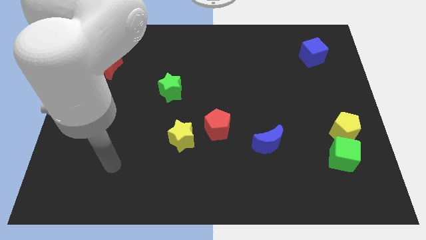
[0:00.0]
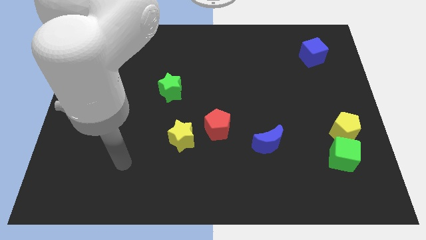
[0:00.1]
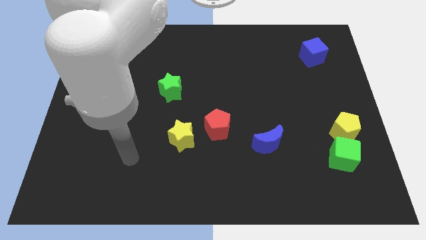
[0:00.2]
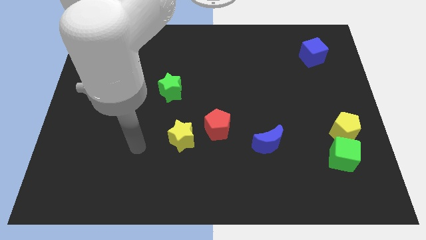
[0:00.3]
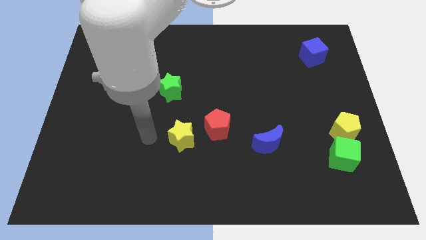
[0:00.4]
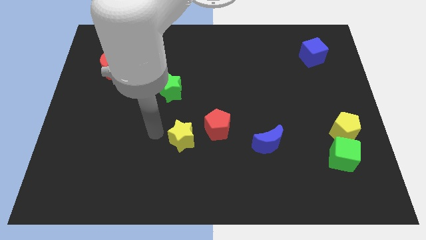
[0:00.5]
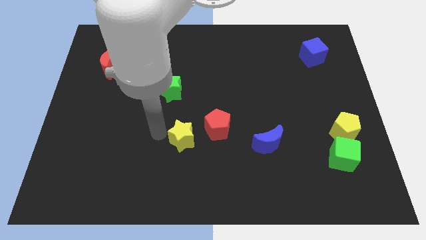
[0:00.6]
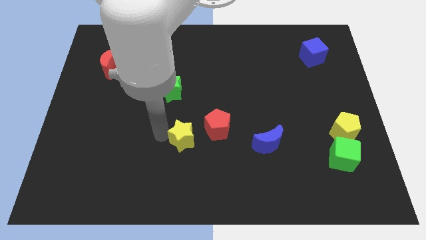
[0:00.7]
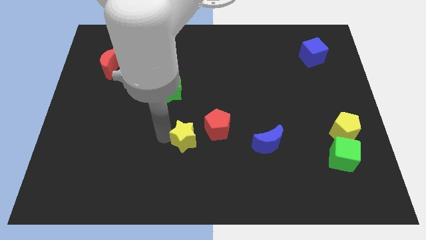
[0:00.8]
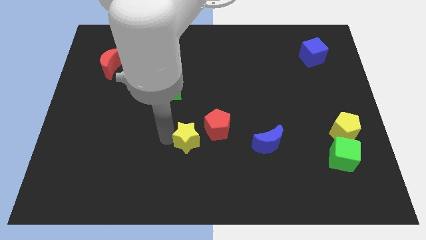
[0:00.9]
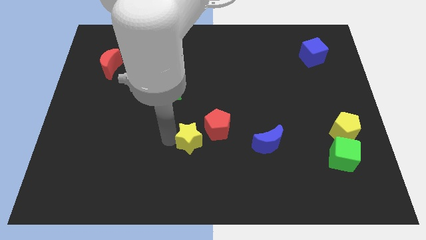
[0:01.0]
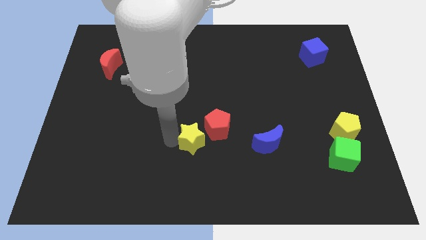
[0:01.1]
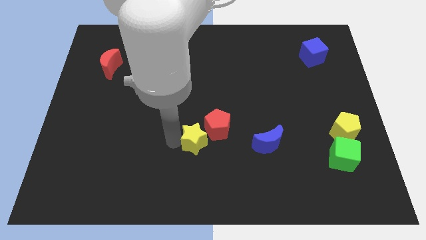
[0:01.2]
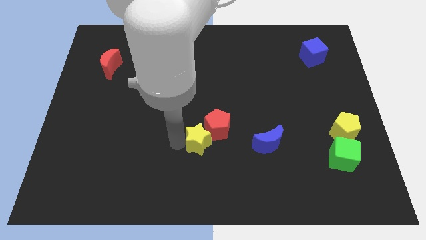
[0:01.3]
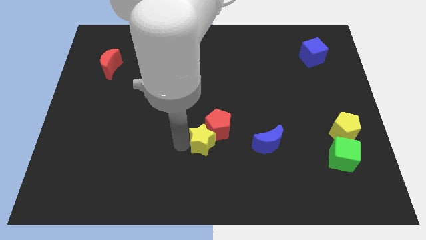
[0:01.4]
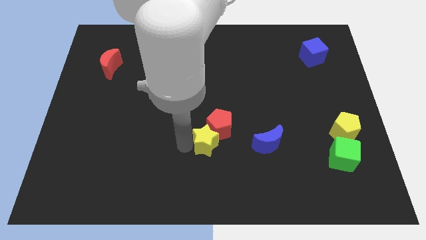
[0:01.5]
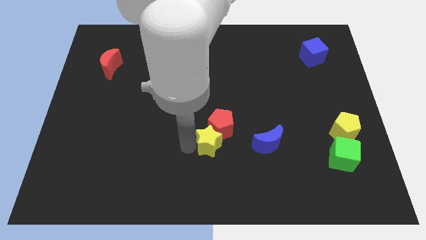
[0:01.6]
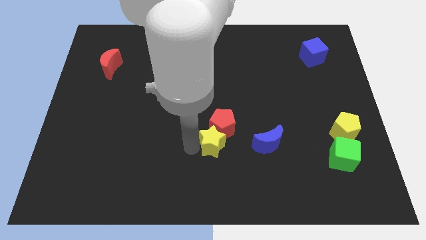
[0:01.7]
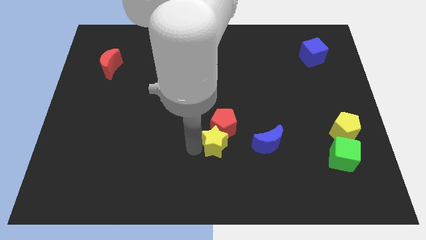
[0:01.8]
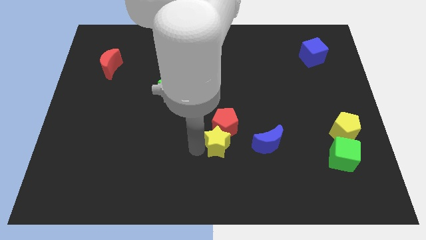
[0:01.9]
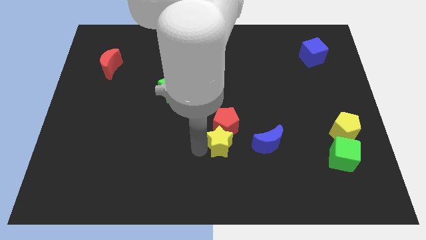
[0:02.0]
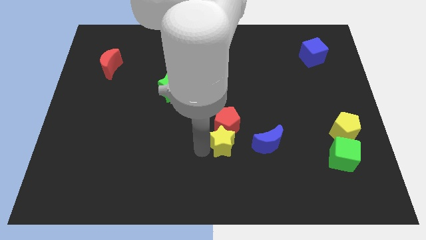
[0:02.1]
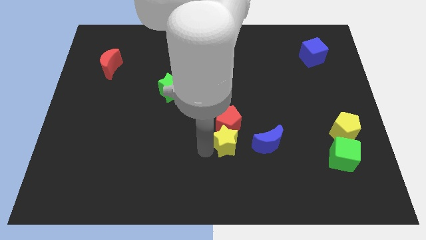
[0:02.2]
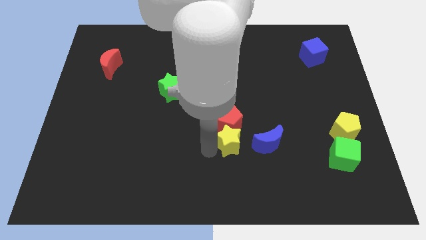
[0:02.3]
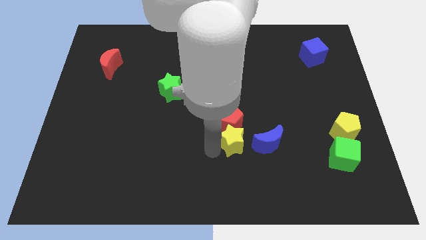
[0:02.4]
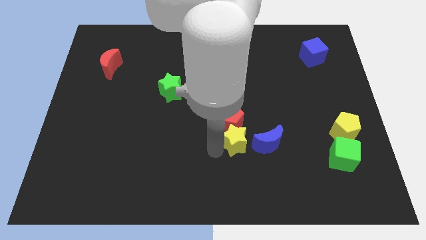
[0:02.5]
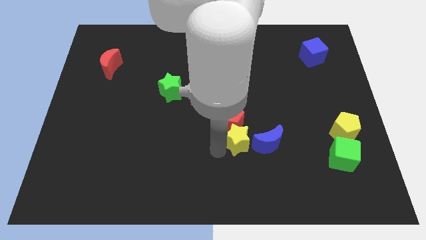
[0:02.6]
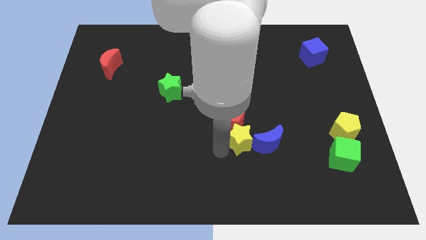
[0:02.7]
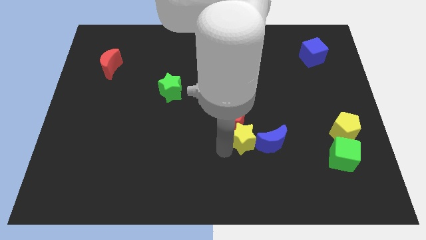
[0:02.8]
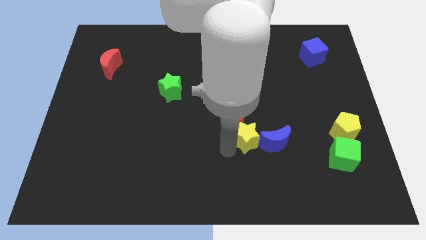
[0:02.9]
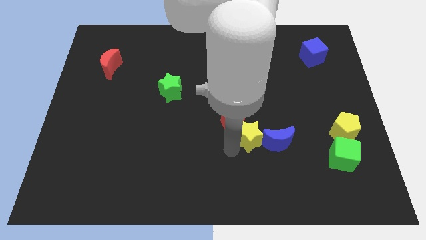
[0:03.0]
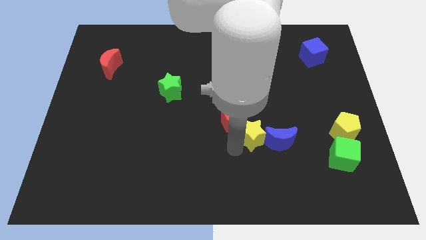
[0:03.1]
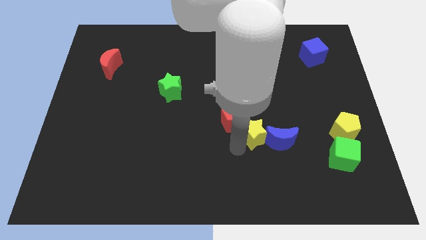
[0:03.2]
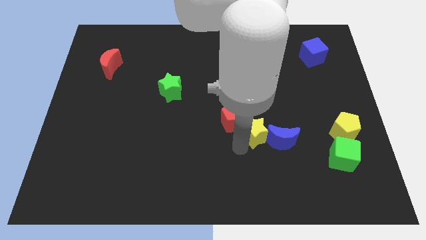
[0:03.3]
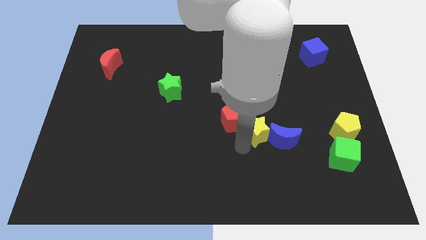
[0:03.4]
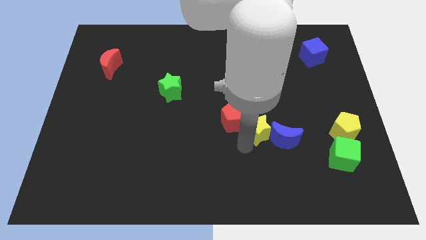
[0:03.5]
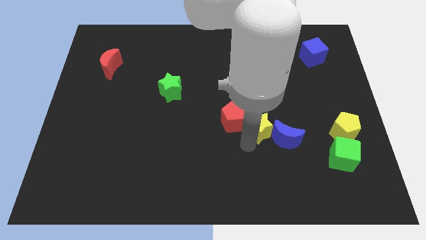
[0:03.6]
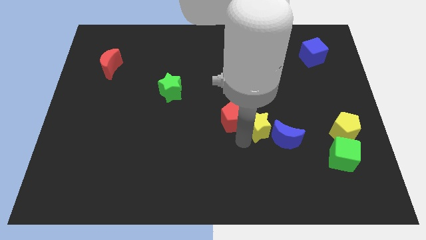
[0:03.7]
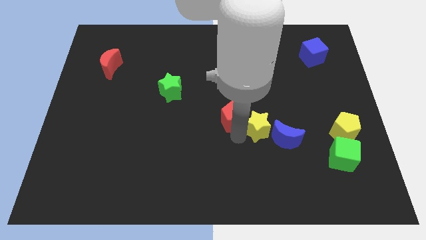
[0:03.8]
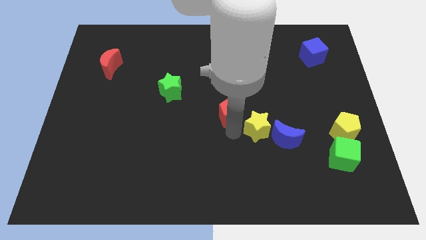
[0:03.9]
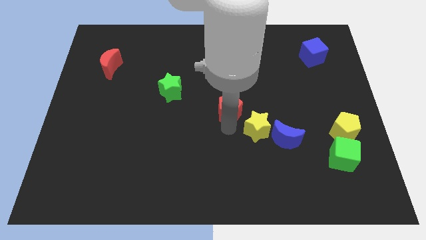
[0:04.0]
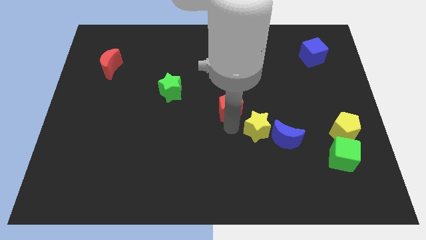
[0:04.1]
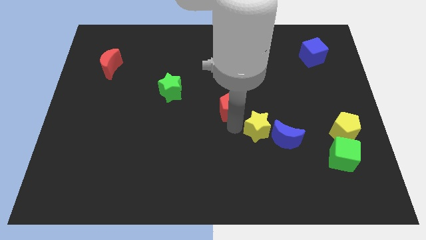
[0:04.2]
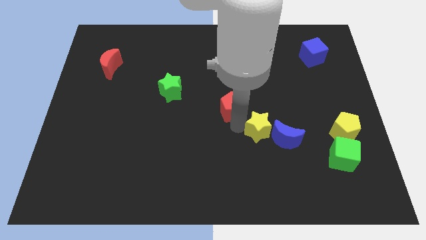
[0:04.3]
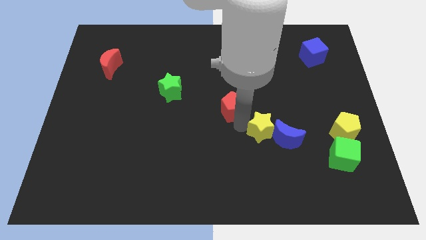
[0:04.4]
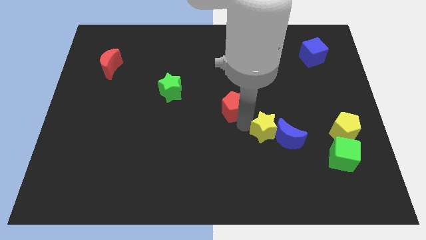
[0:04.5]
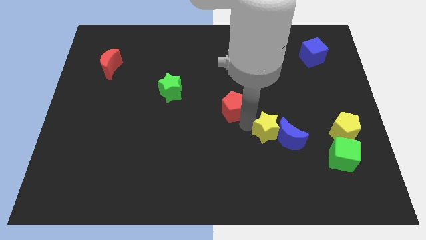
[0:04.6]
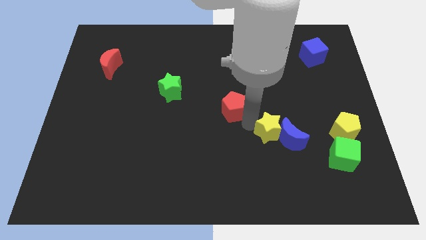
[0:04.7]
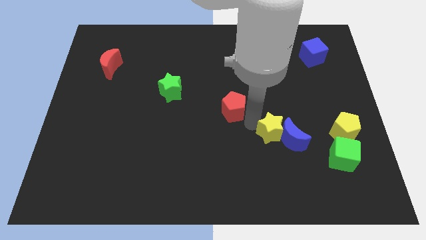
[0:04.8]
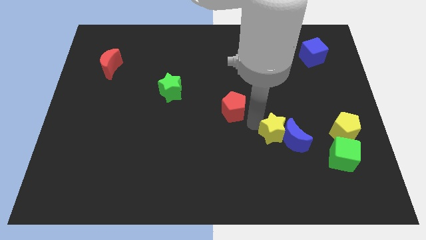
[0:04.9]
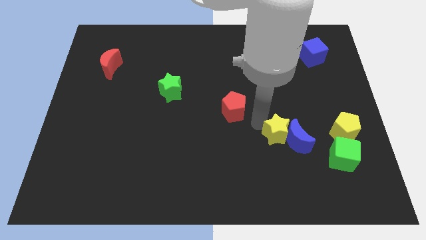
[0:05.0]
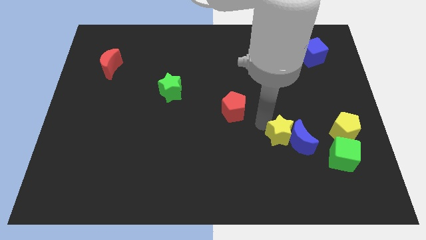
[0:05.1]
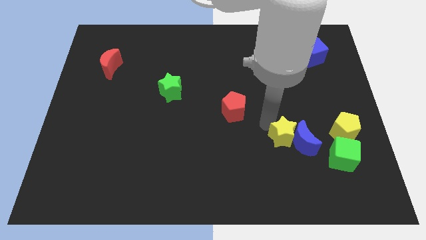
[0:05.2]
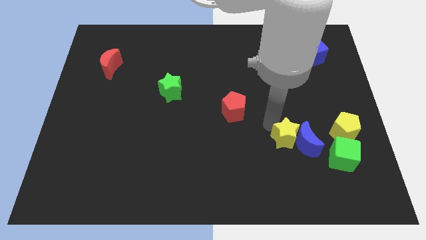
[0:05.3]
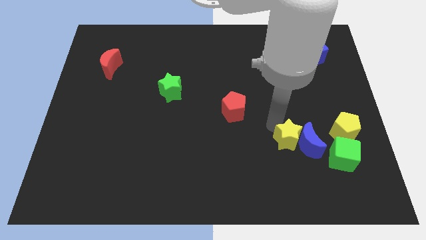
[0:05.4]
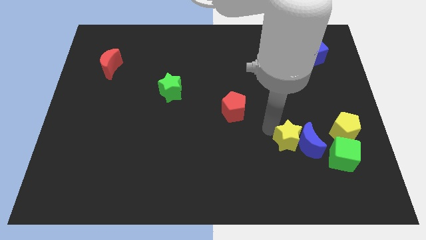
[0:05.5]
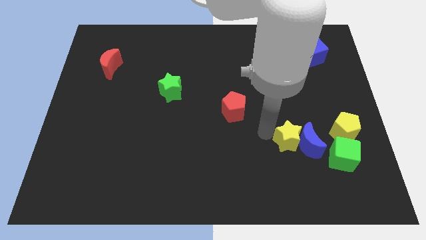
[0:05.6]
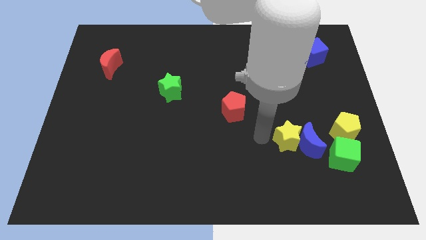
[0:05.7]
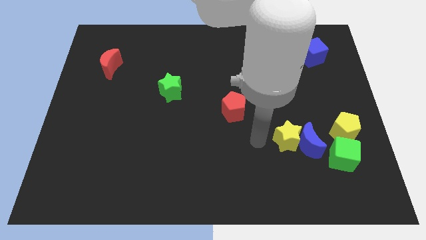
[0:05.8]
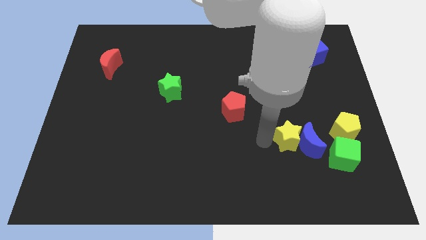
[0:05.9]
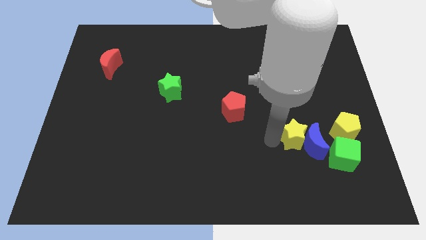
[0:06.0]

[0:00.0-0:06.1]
put the yellow star diagonally up and to the left of the green cube

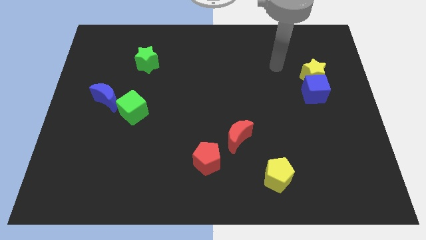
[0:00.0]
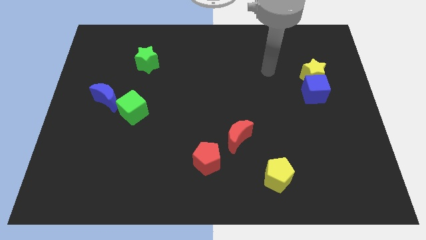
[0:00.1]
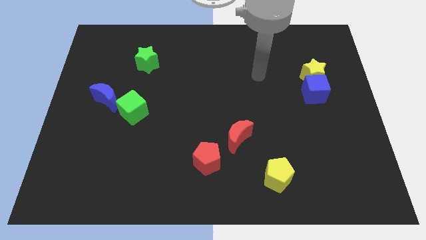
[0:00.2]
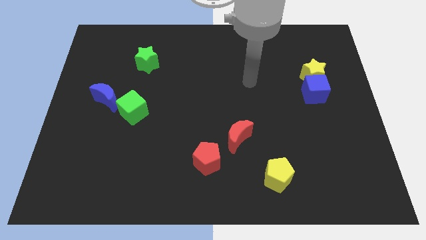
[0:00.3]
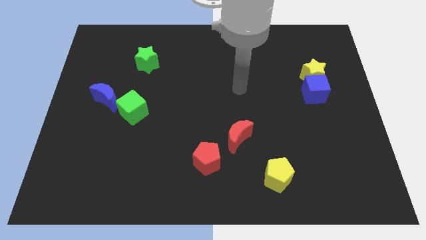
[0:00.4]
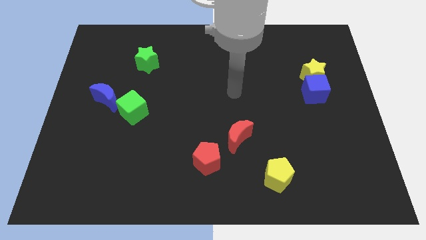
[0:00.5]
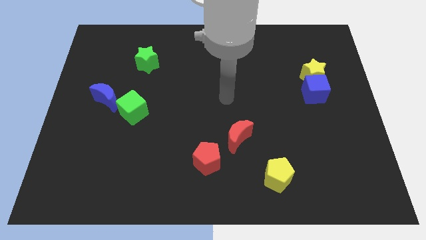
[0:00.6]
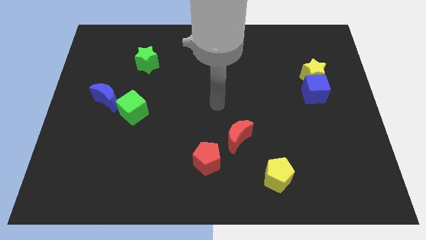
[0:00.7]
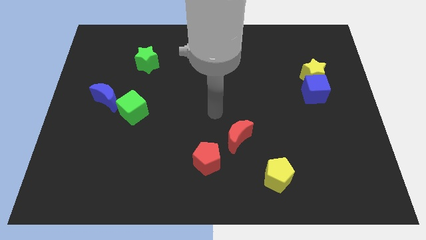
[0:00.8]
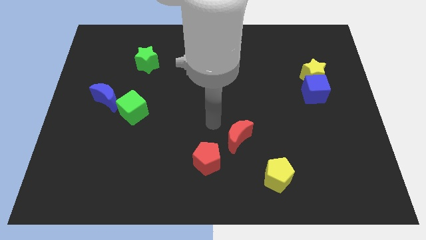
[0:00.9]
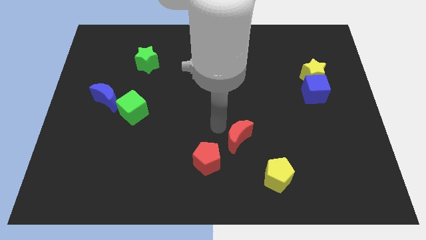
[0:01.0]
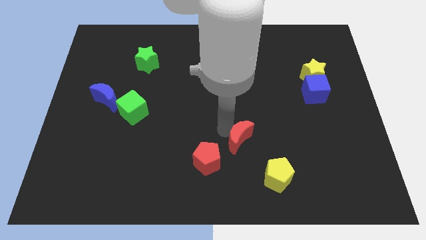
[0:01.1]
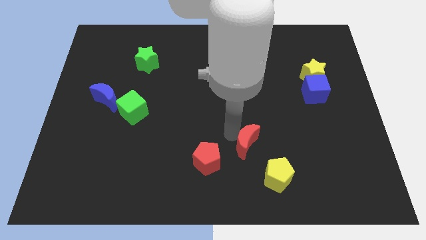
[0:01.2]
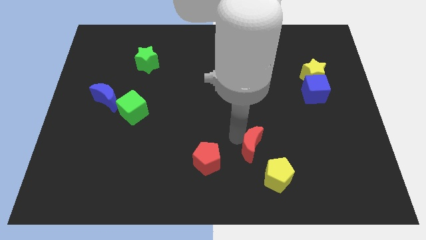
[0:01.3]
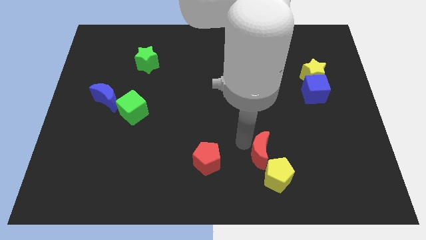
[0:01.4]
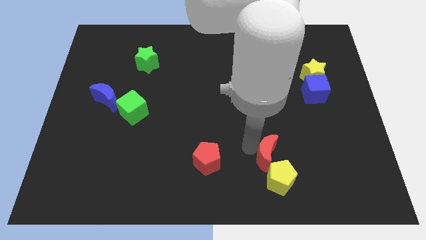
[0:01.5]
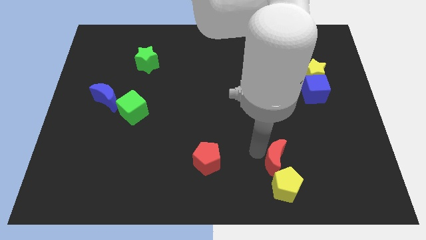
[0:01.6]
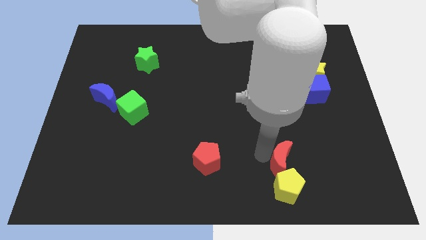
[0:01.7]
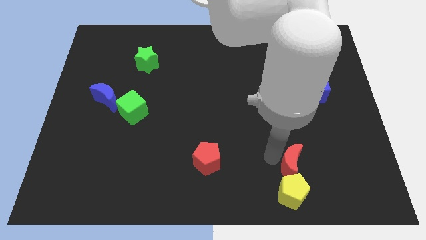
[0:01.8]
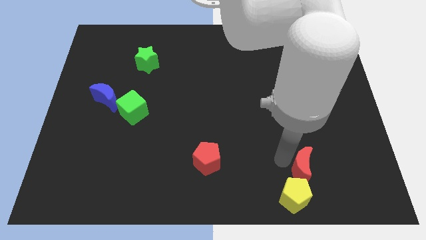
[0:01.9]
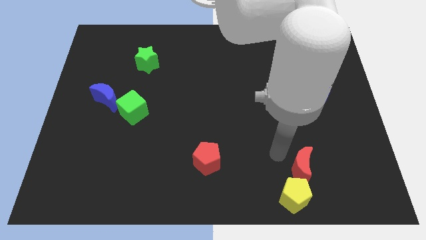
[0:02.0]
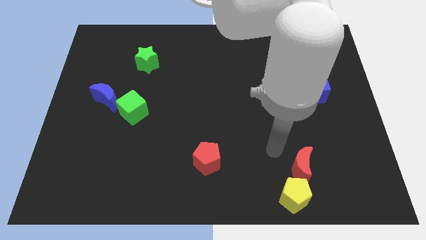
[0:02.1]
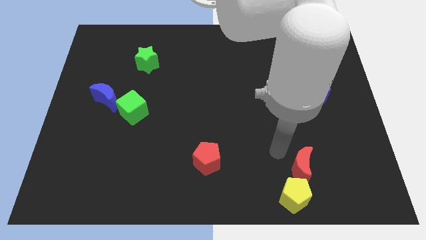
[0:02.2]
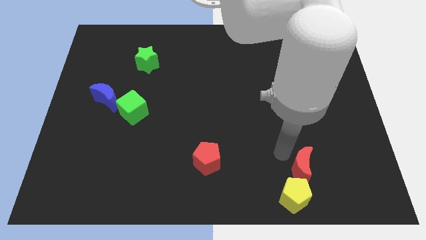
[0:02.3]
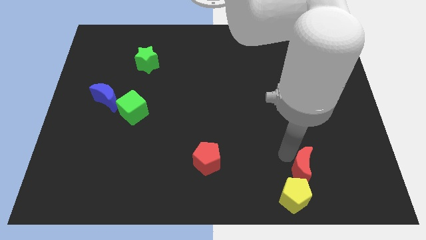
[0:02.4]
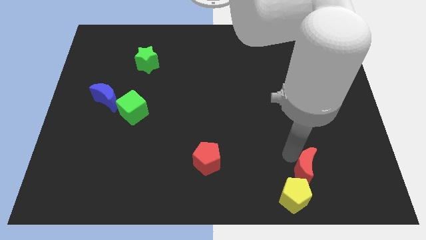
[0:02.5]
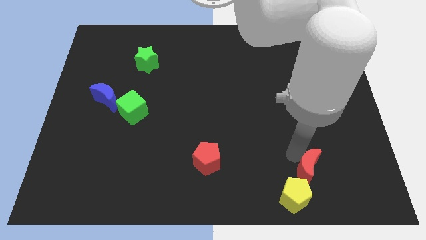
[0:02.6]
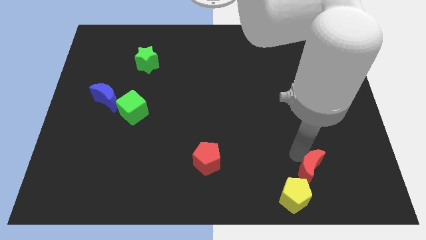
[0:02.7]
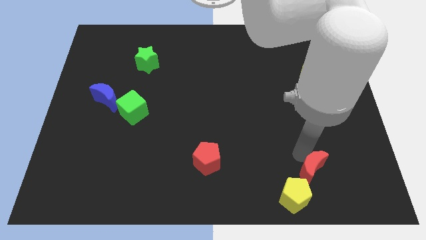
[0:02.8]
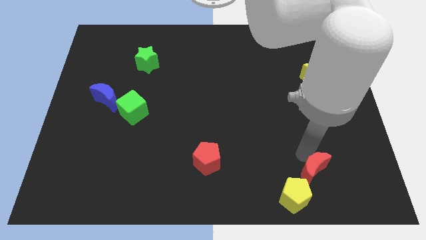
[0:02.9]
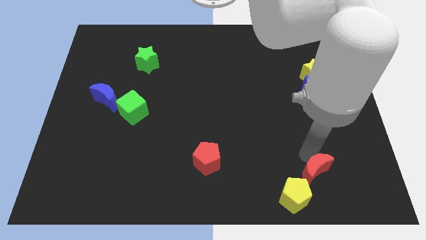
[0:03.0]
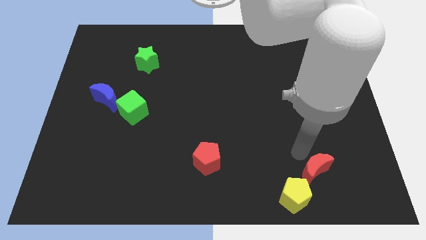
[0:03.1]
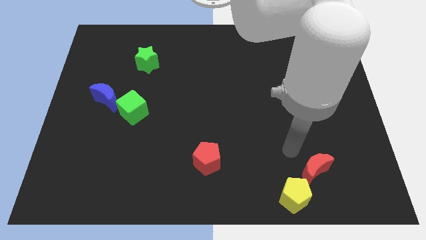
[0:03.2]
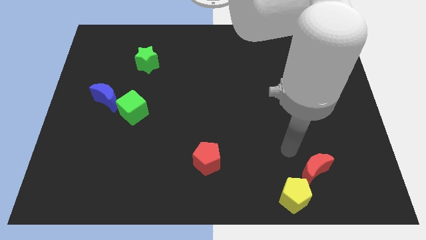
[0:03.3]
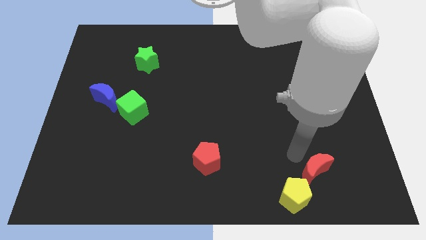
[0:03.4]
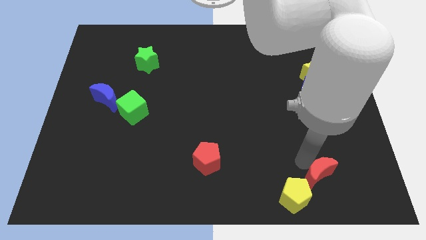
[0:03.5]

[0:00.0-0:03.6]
put the red moon just right of the yellow pentagon
